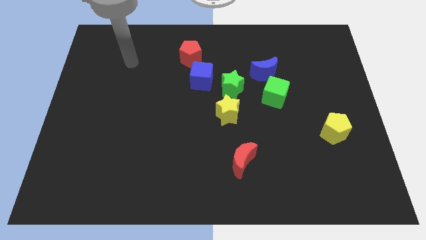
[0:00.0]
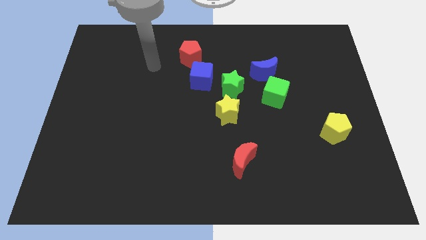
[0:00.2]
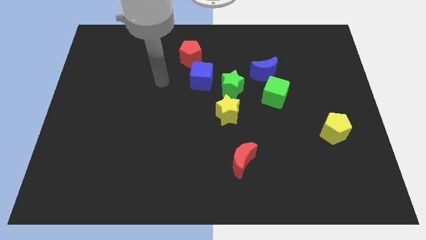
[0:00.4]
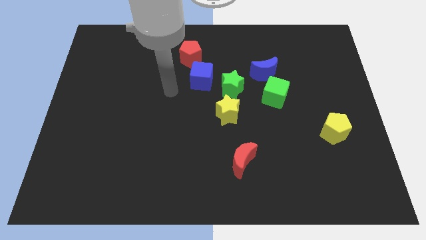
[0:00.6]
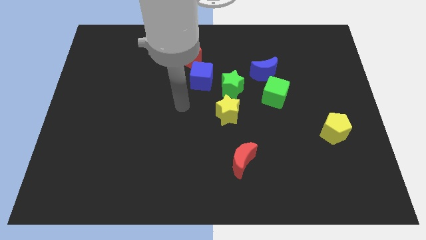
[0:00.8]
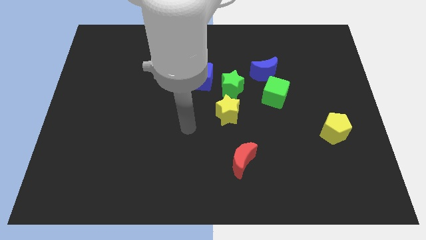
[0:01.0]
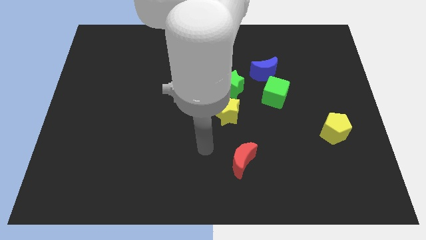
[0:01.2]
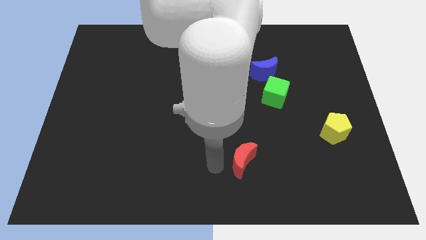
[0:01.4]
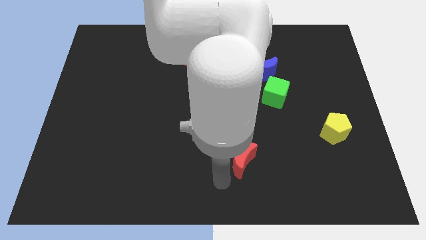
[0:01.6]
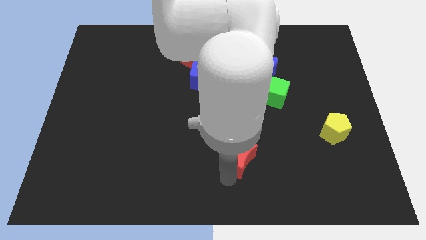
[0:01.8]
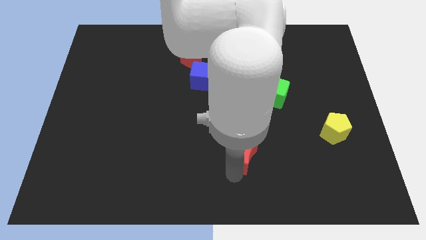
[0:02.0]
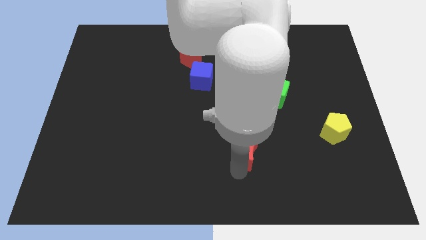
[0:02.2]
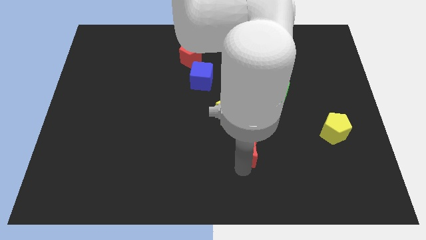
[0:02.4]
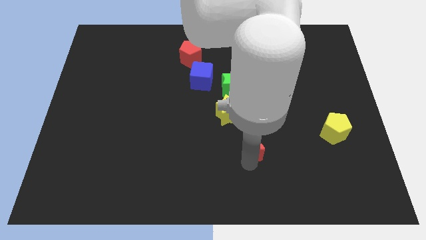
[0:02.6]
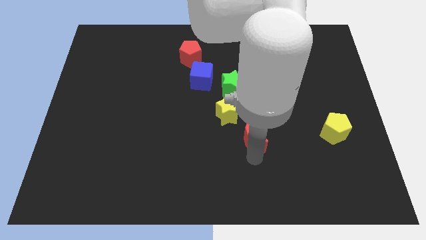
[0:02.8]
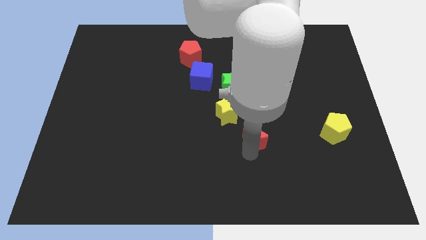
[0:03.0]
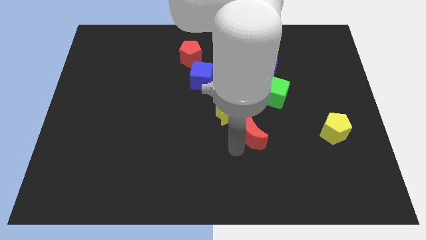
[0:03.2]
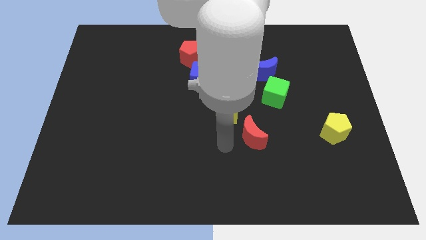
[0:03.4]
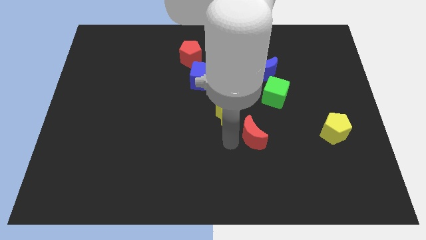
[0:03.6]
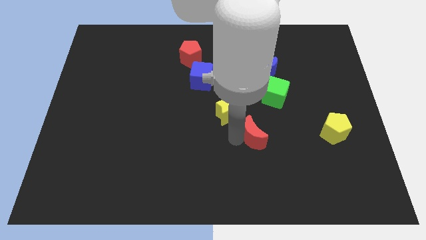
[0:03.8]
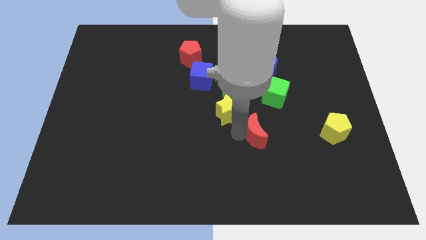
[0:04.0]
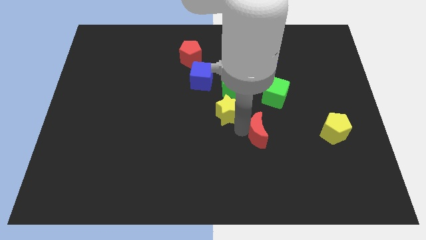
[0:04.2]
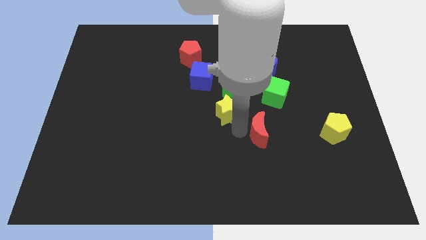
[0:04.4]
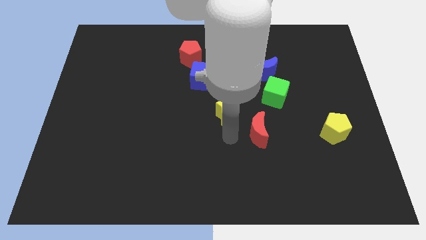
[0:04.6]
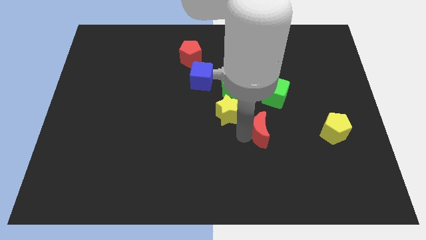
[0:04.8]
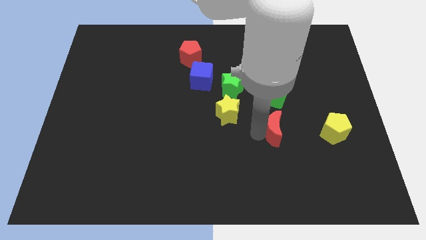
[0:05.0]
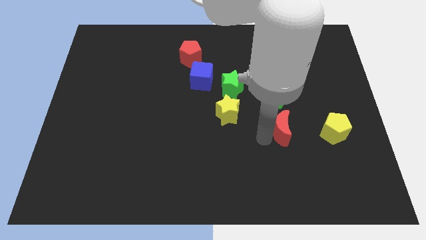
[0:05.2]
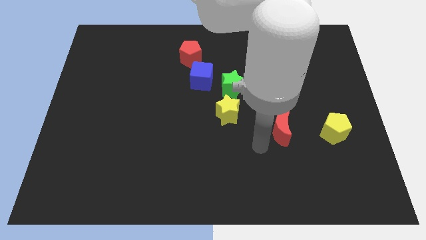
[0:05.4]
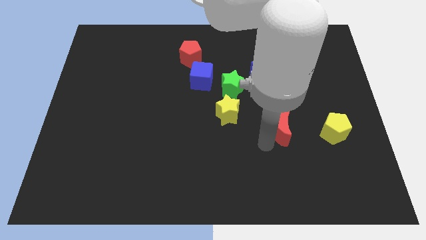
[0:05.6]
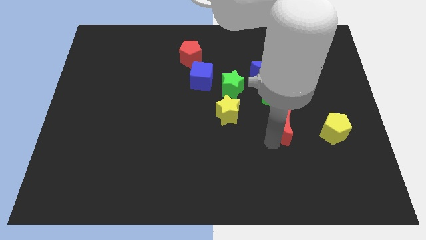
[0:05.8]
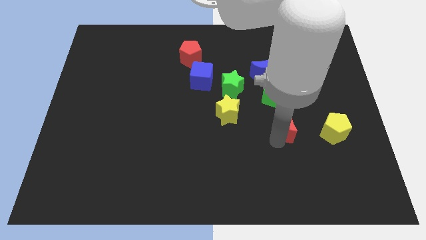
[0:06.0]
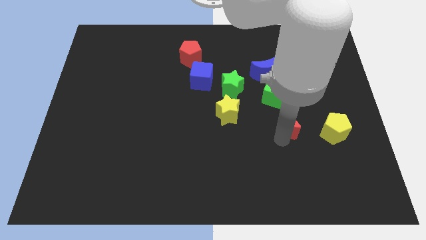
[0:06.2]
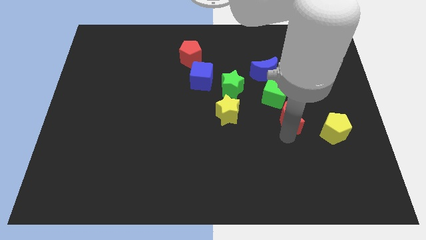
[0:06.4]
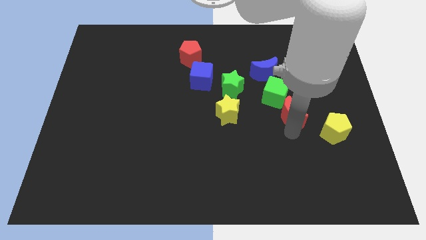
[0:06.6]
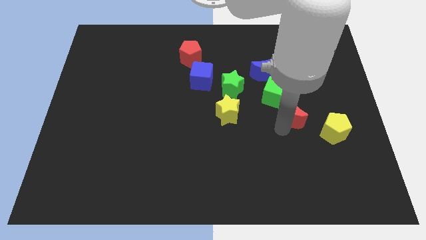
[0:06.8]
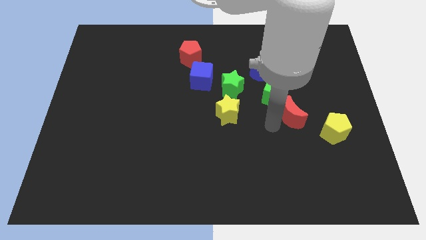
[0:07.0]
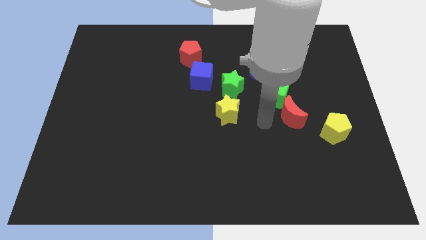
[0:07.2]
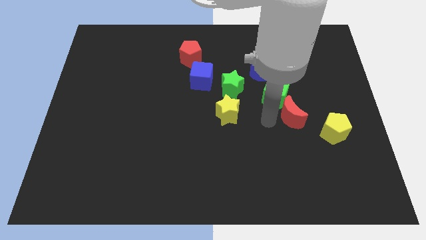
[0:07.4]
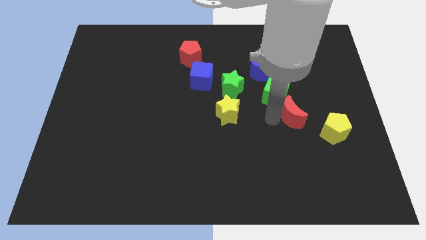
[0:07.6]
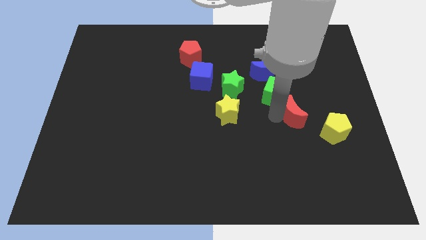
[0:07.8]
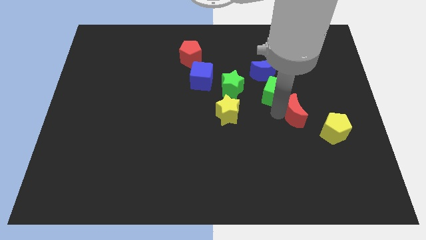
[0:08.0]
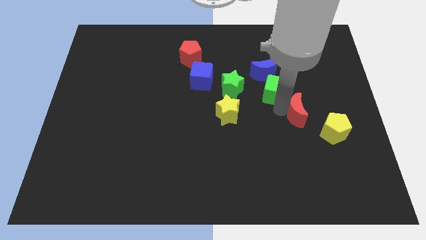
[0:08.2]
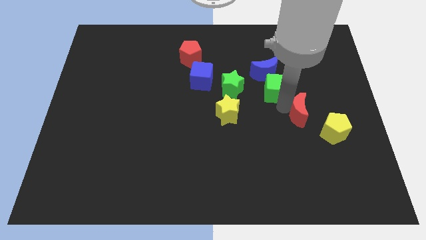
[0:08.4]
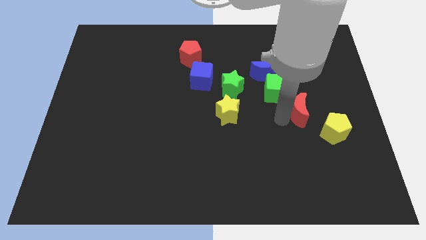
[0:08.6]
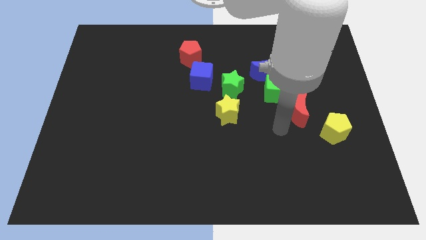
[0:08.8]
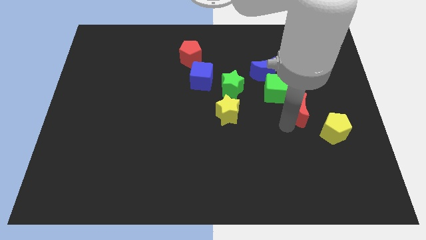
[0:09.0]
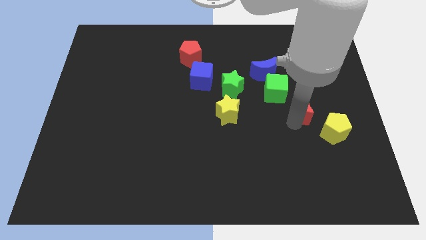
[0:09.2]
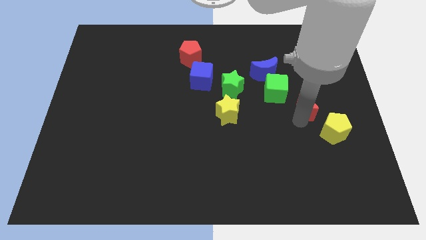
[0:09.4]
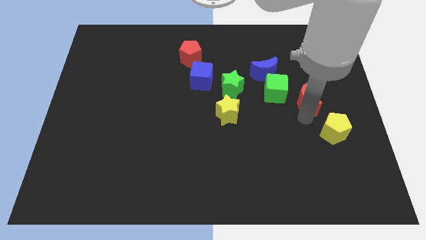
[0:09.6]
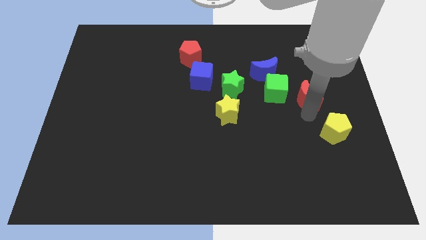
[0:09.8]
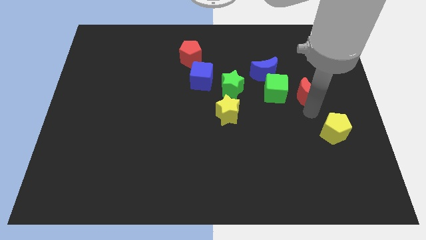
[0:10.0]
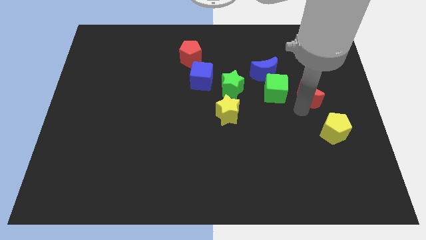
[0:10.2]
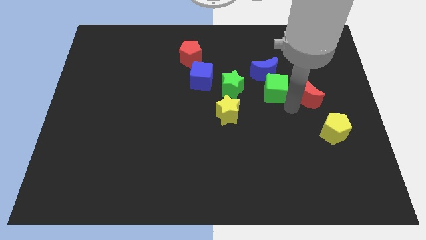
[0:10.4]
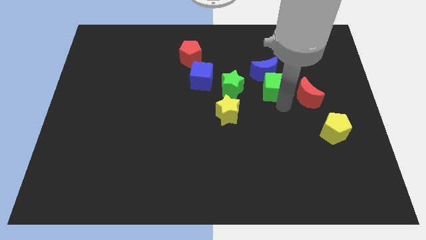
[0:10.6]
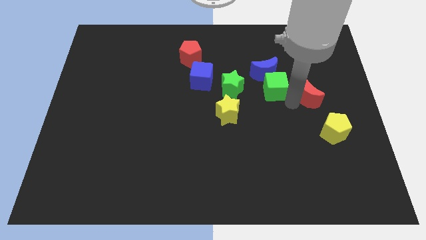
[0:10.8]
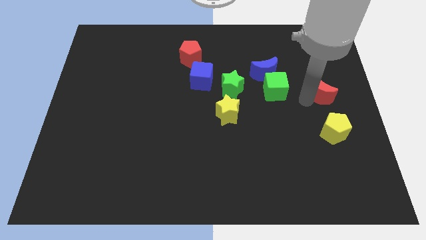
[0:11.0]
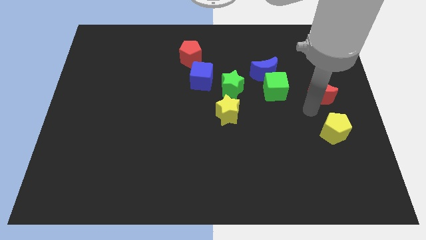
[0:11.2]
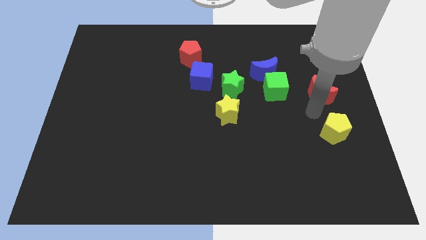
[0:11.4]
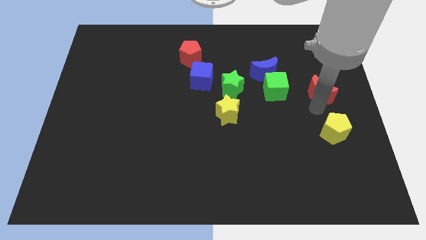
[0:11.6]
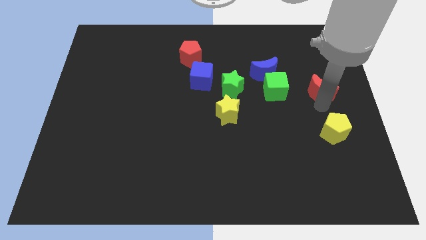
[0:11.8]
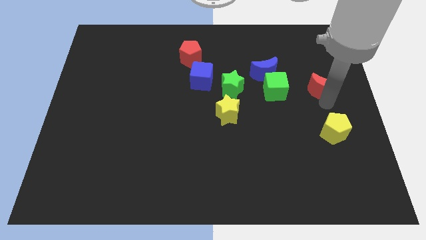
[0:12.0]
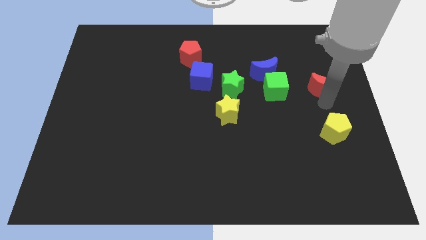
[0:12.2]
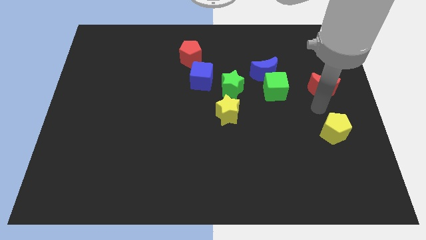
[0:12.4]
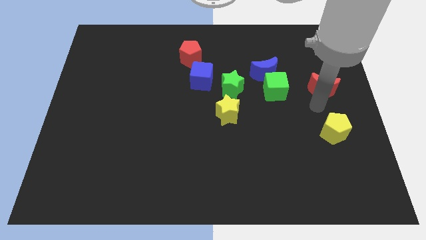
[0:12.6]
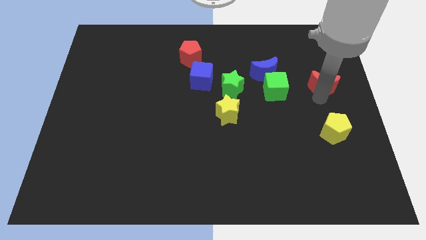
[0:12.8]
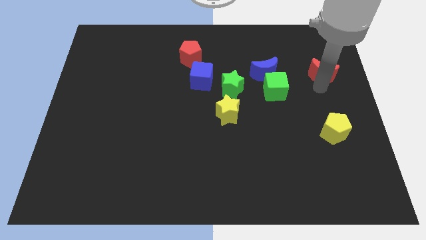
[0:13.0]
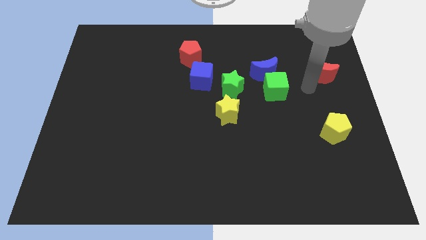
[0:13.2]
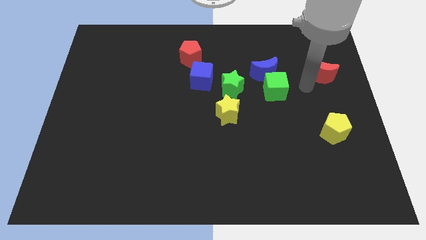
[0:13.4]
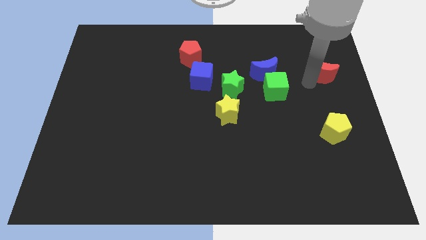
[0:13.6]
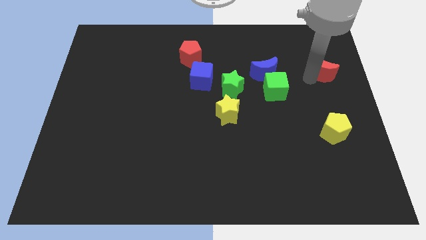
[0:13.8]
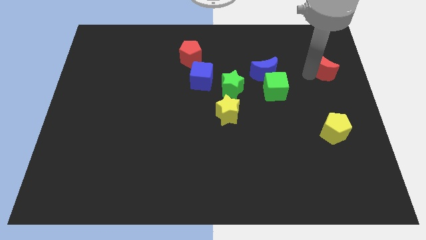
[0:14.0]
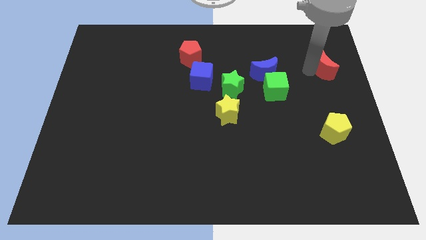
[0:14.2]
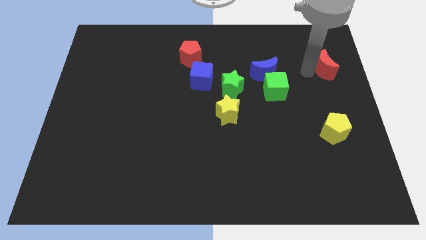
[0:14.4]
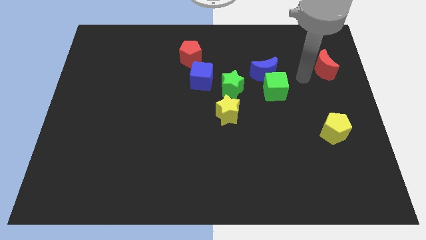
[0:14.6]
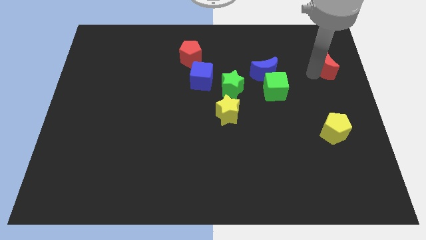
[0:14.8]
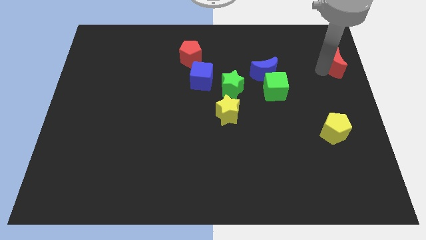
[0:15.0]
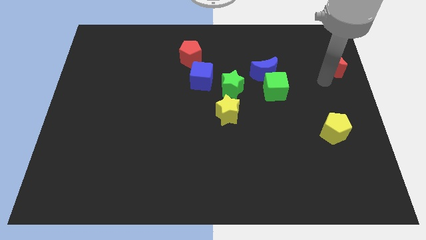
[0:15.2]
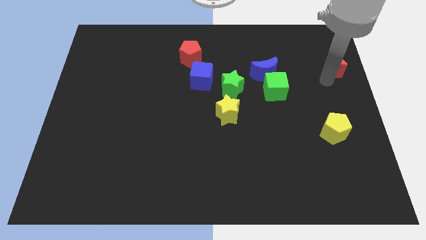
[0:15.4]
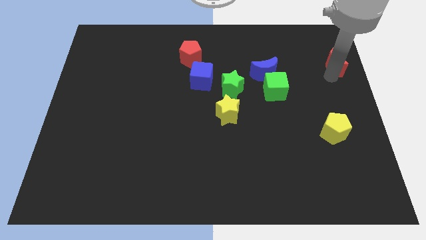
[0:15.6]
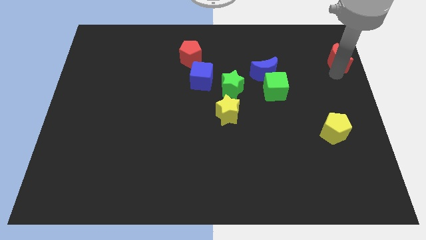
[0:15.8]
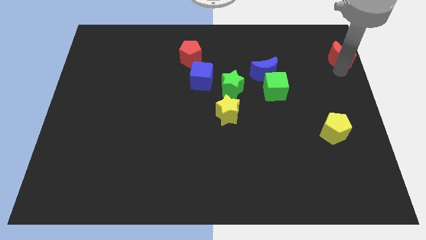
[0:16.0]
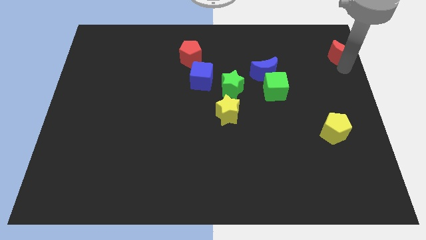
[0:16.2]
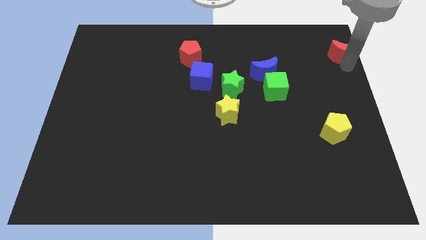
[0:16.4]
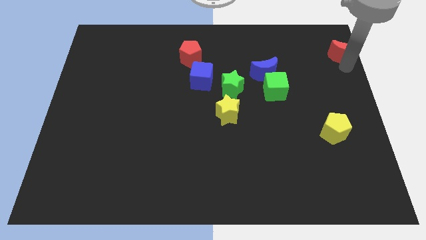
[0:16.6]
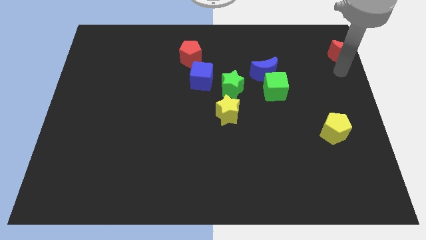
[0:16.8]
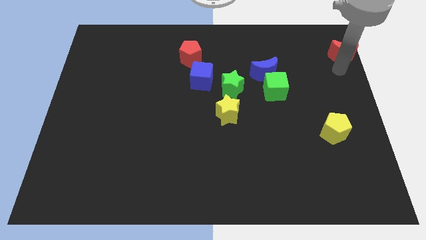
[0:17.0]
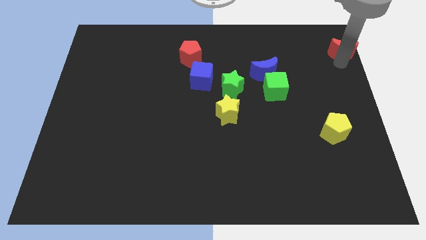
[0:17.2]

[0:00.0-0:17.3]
put the red moon to the upper right corner
